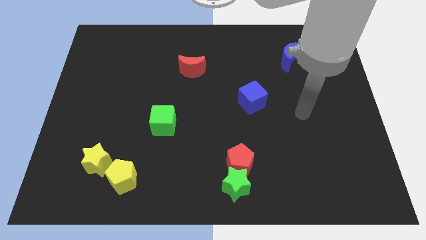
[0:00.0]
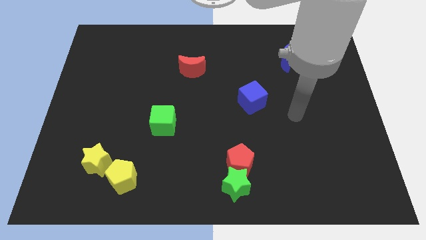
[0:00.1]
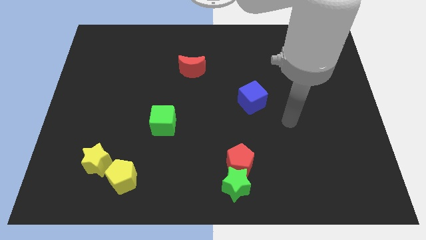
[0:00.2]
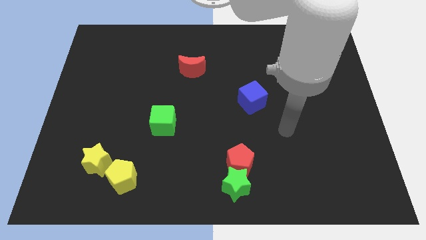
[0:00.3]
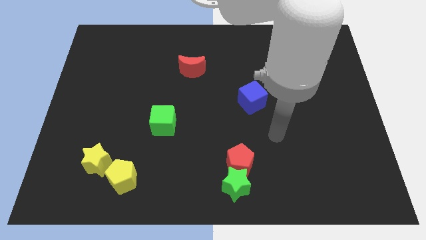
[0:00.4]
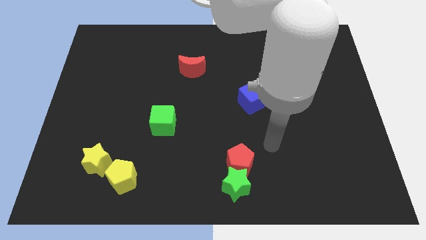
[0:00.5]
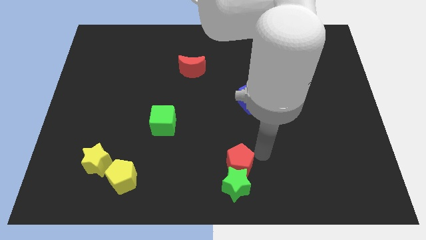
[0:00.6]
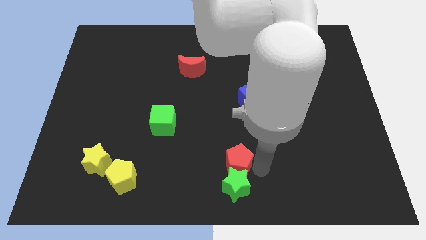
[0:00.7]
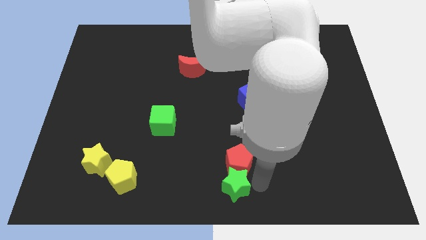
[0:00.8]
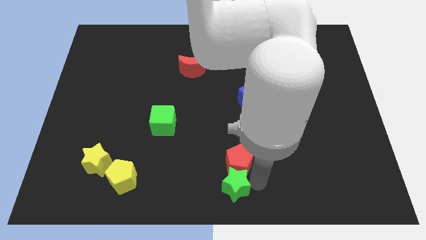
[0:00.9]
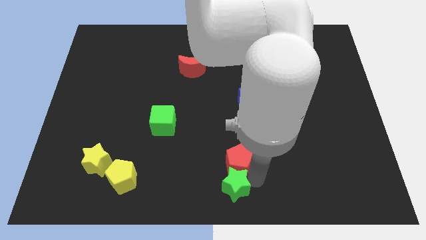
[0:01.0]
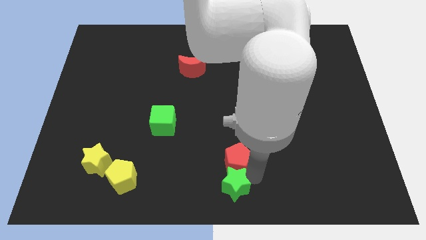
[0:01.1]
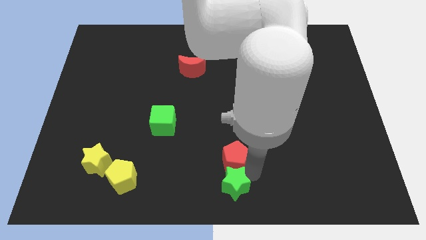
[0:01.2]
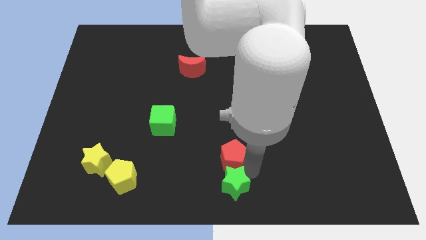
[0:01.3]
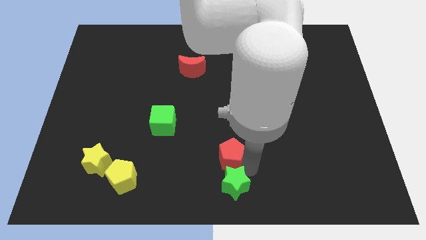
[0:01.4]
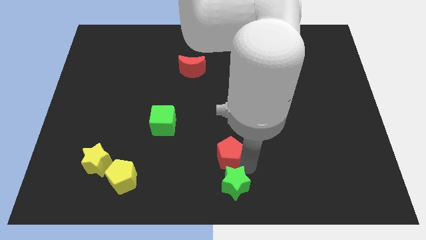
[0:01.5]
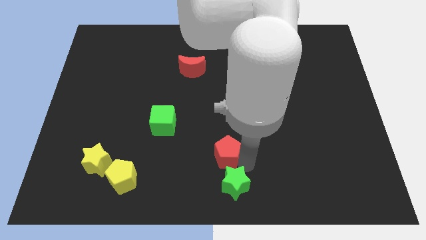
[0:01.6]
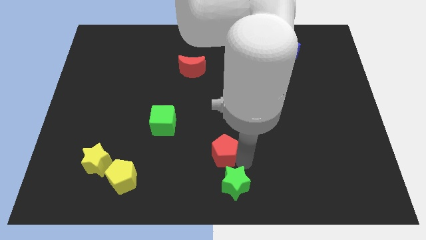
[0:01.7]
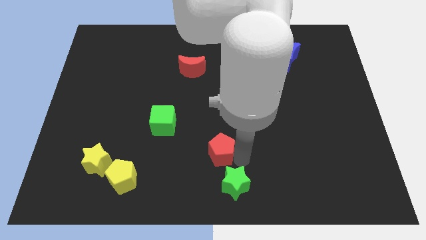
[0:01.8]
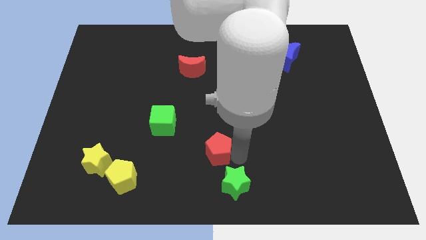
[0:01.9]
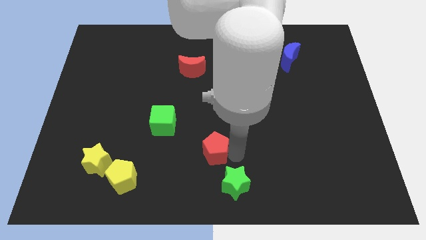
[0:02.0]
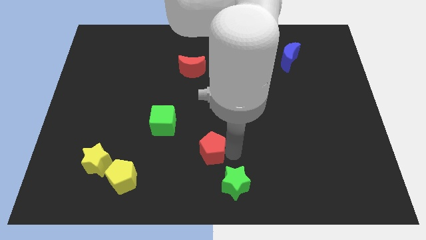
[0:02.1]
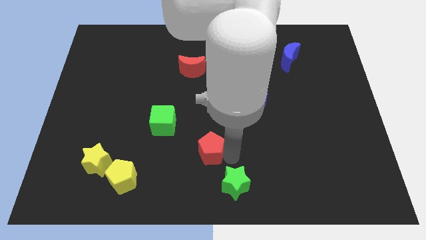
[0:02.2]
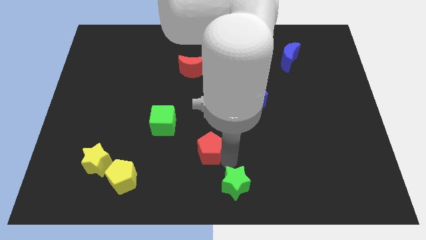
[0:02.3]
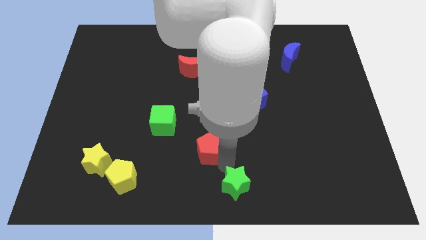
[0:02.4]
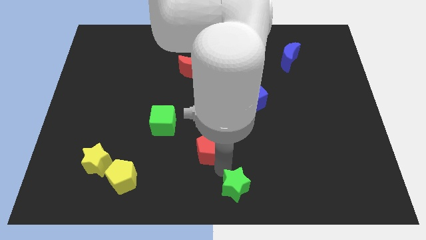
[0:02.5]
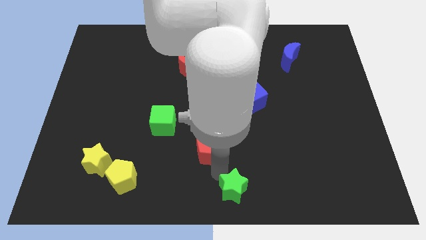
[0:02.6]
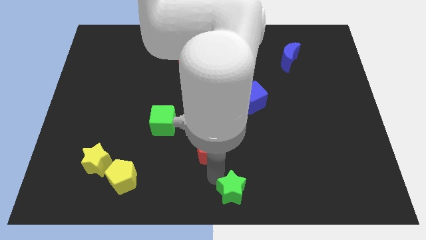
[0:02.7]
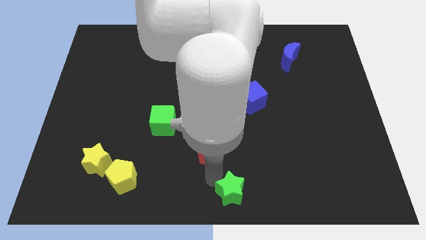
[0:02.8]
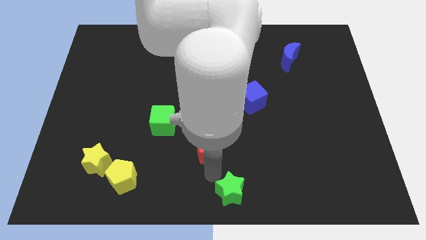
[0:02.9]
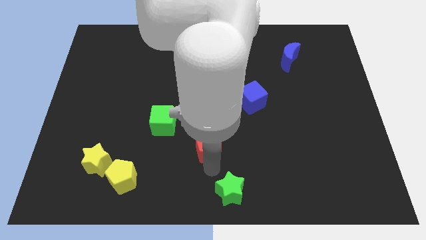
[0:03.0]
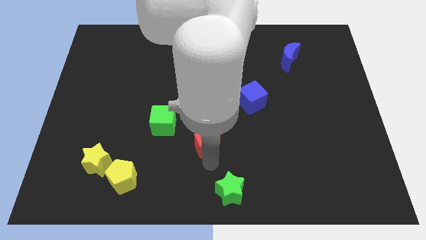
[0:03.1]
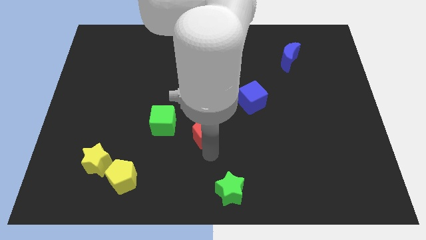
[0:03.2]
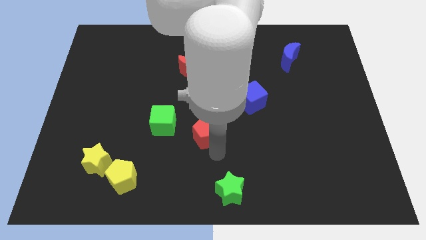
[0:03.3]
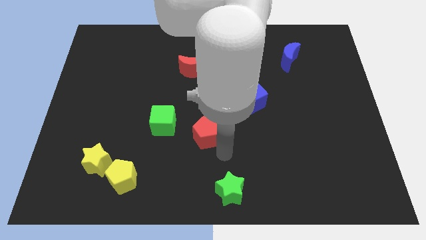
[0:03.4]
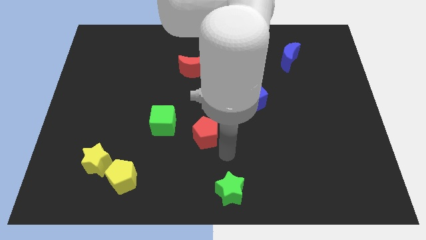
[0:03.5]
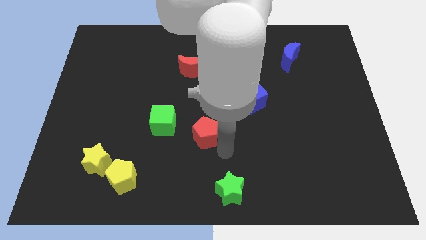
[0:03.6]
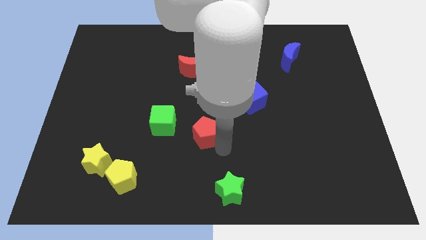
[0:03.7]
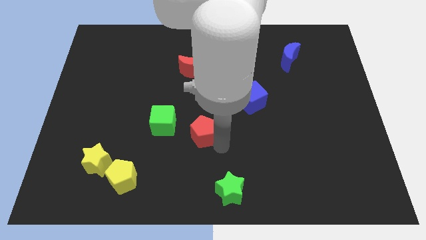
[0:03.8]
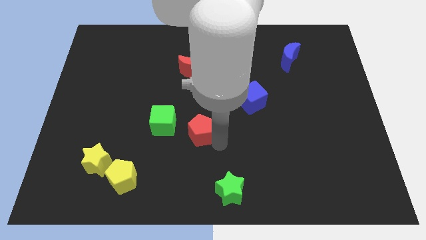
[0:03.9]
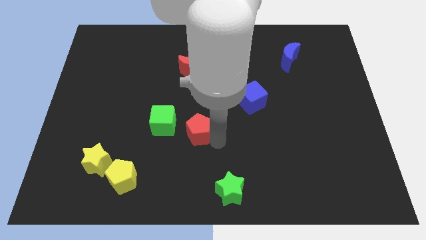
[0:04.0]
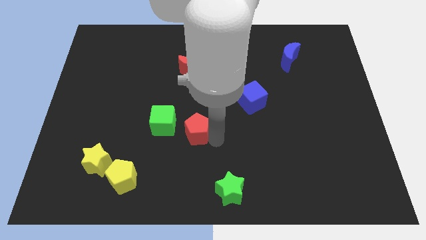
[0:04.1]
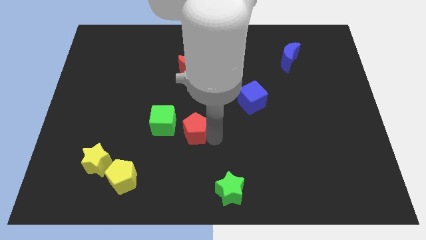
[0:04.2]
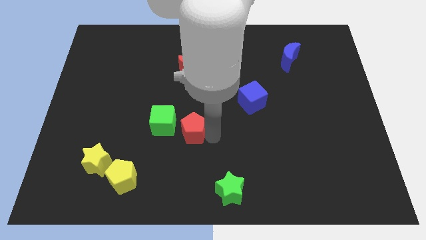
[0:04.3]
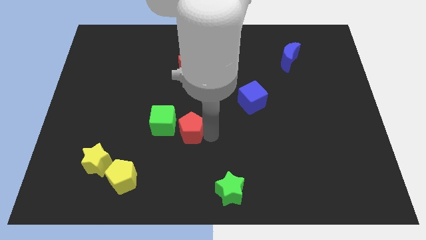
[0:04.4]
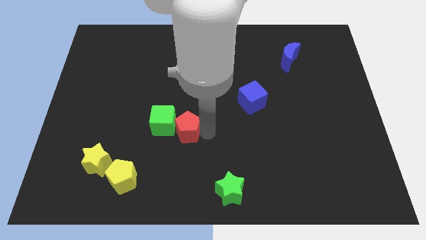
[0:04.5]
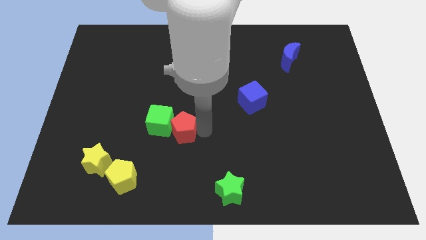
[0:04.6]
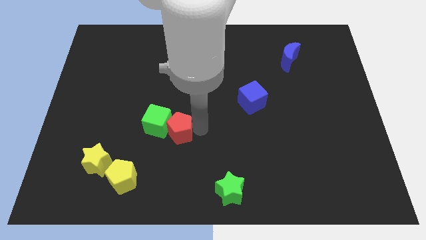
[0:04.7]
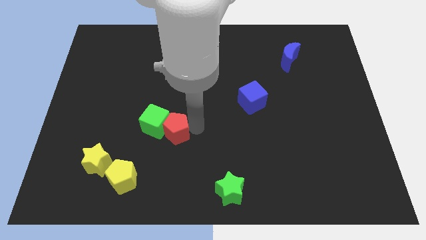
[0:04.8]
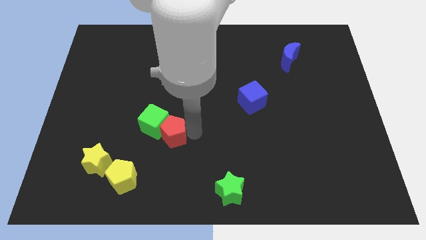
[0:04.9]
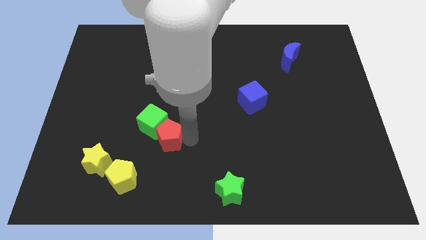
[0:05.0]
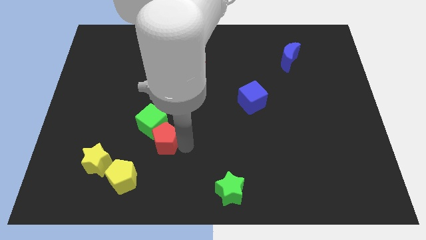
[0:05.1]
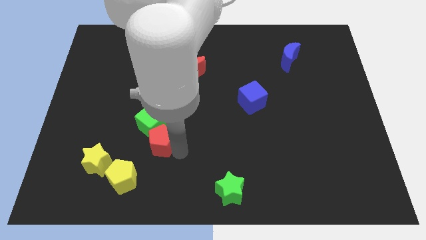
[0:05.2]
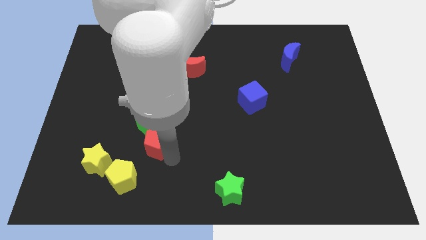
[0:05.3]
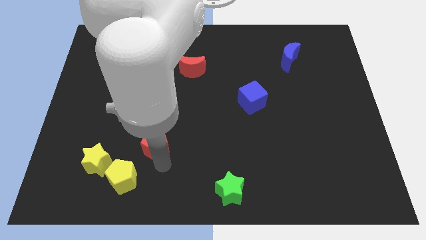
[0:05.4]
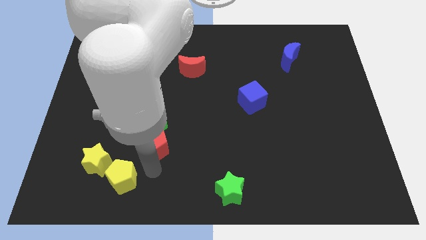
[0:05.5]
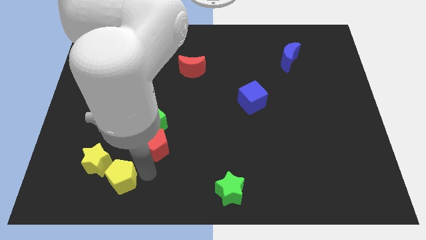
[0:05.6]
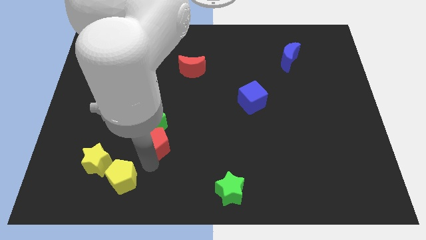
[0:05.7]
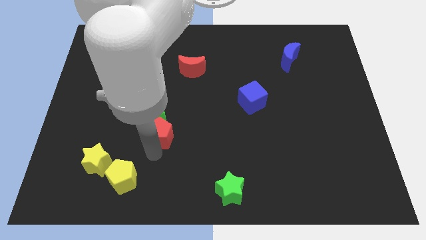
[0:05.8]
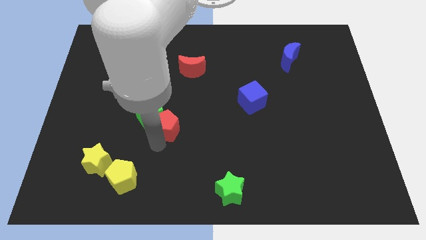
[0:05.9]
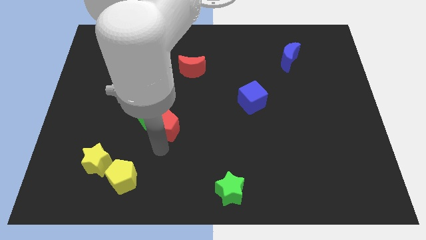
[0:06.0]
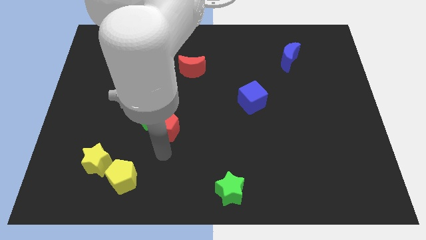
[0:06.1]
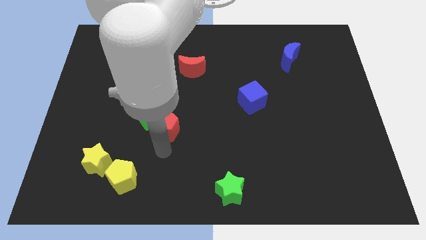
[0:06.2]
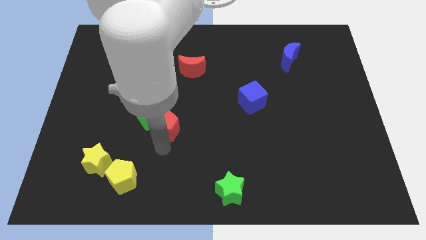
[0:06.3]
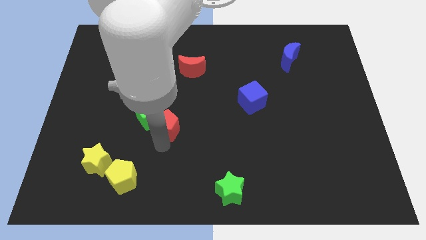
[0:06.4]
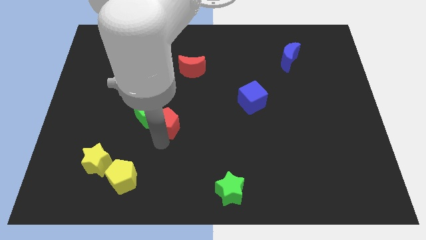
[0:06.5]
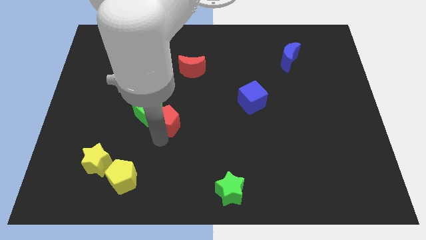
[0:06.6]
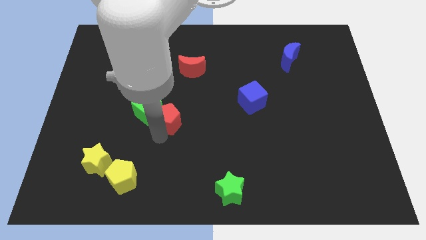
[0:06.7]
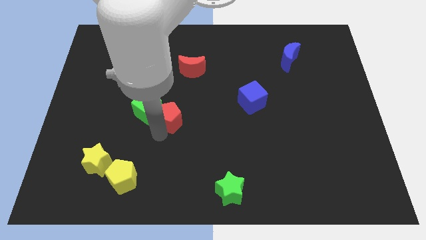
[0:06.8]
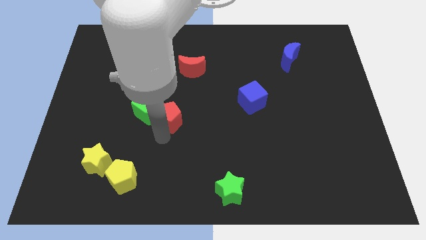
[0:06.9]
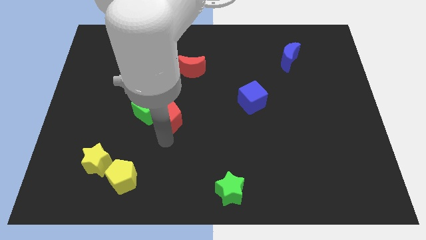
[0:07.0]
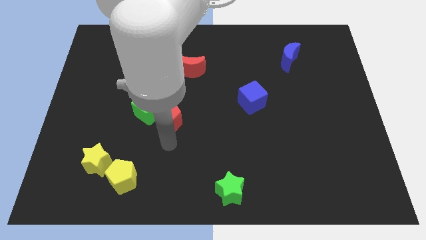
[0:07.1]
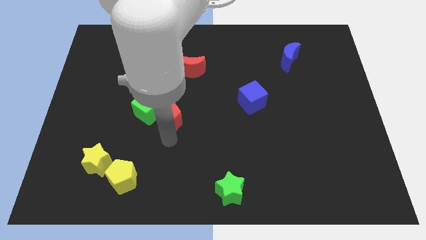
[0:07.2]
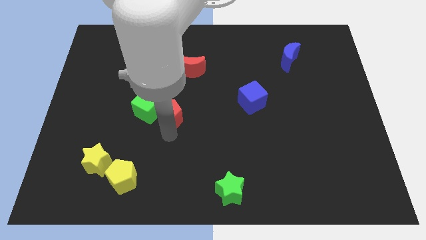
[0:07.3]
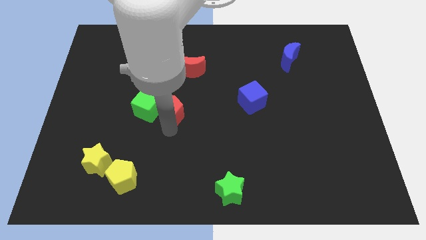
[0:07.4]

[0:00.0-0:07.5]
move the red pentagon upwards and to the left

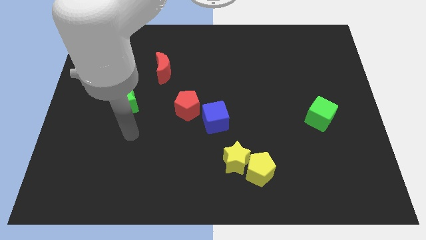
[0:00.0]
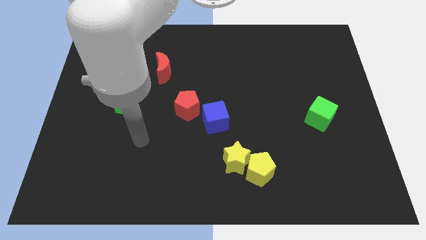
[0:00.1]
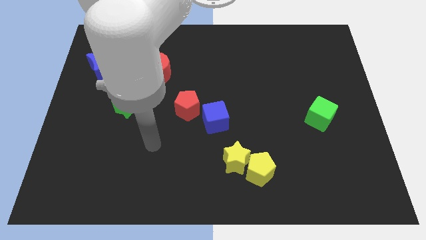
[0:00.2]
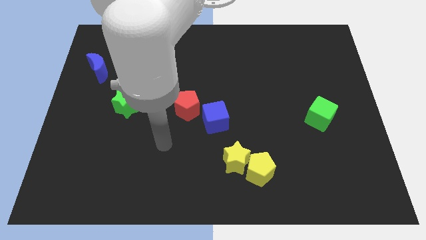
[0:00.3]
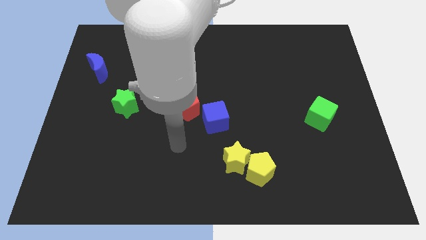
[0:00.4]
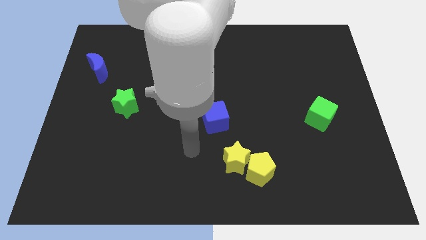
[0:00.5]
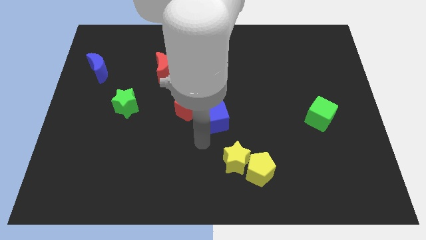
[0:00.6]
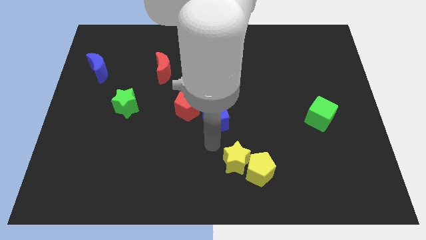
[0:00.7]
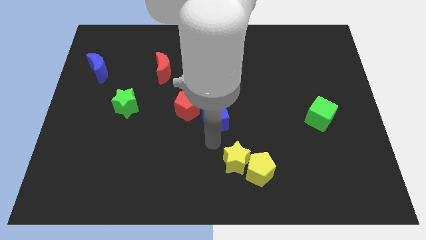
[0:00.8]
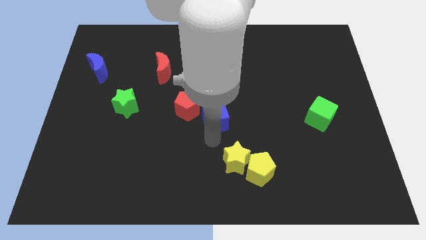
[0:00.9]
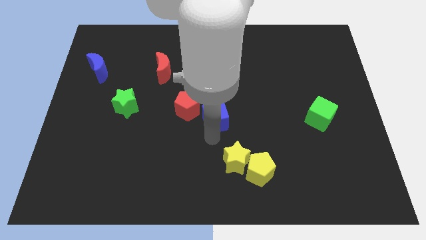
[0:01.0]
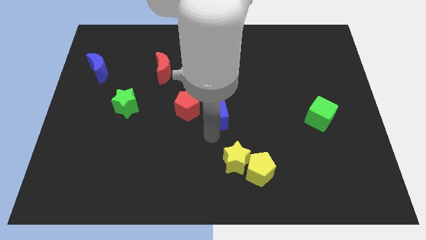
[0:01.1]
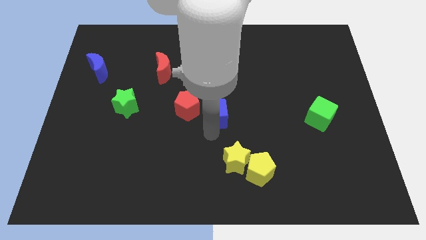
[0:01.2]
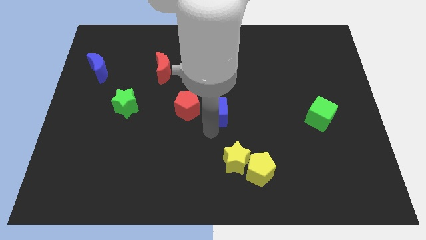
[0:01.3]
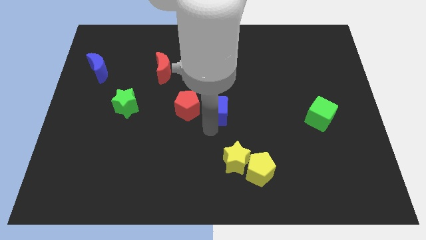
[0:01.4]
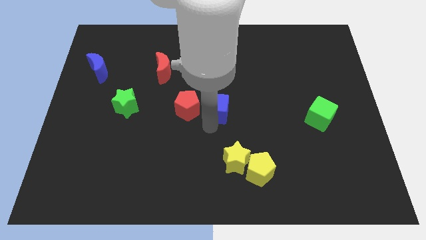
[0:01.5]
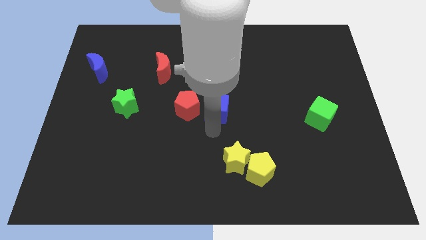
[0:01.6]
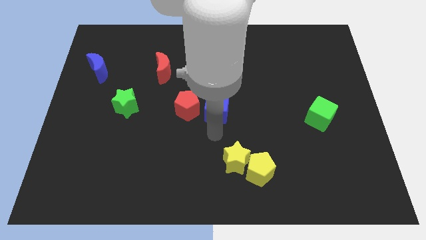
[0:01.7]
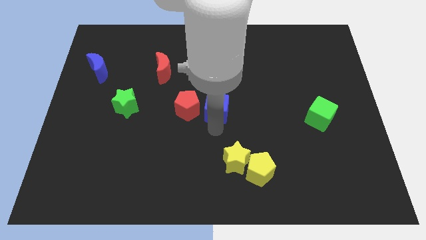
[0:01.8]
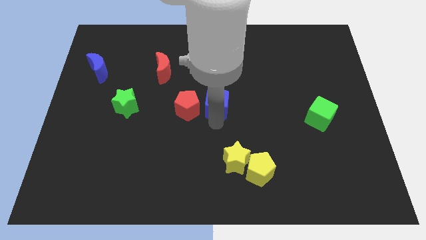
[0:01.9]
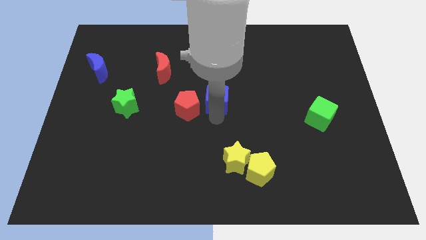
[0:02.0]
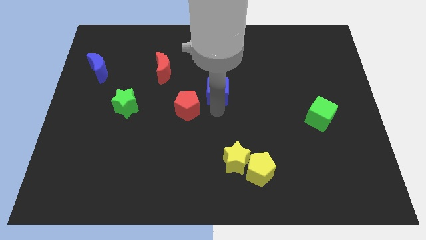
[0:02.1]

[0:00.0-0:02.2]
slightly move the blue cube upwards
